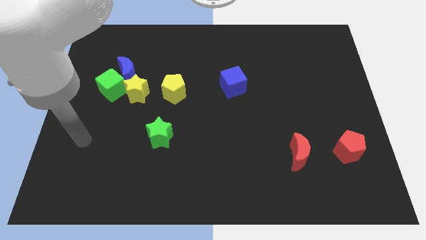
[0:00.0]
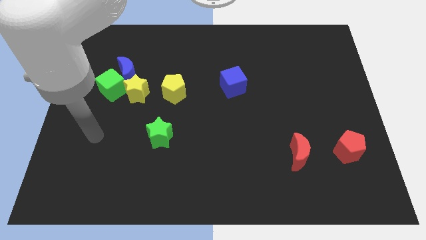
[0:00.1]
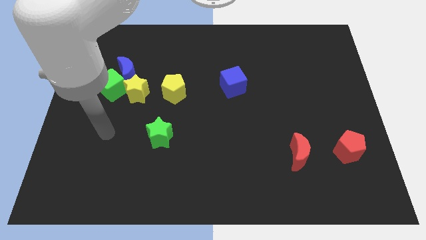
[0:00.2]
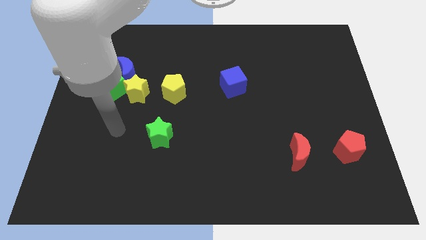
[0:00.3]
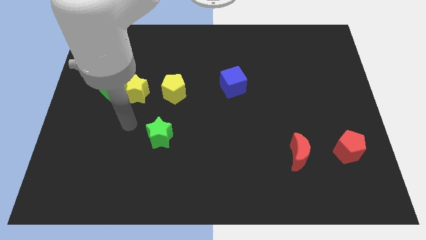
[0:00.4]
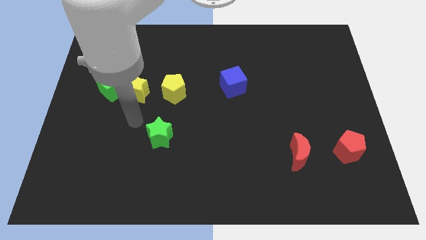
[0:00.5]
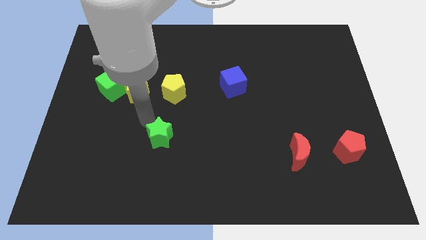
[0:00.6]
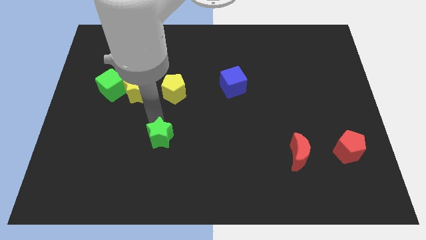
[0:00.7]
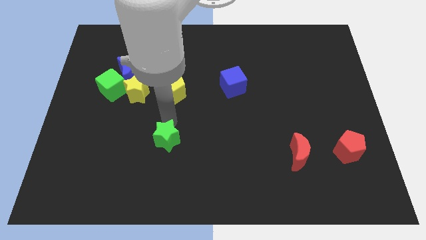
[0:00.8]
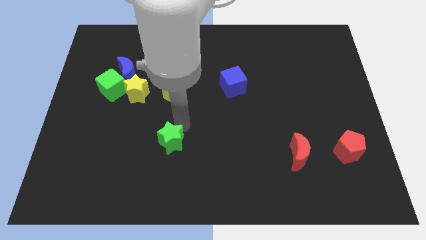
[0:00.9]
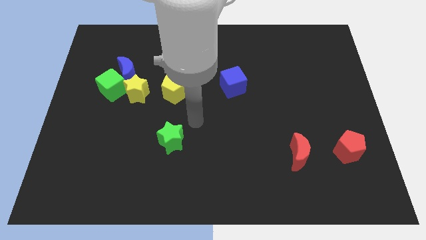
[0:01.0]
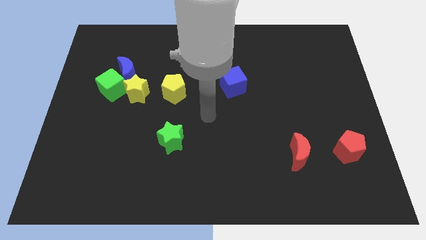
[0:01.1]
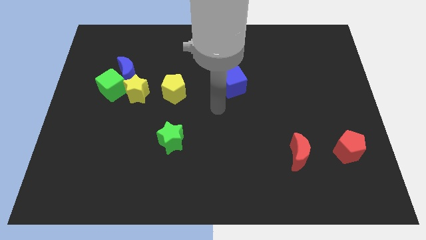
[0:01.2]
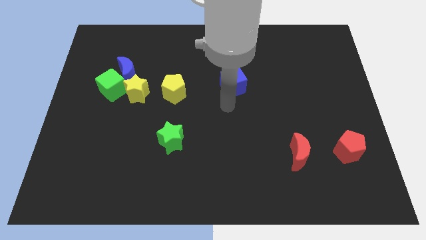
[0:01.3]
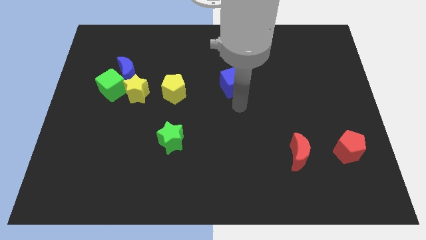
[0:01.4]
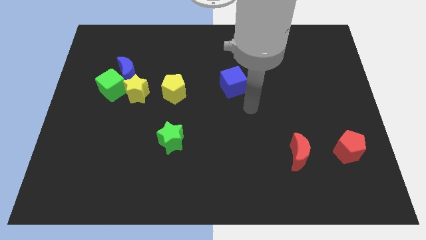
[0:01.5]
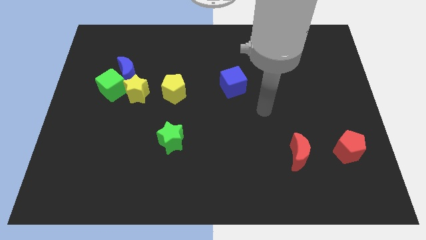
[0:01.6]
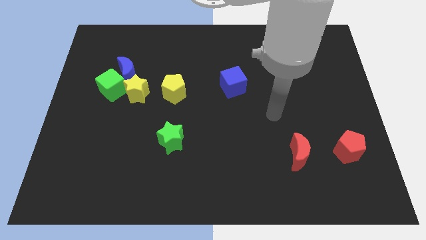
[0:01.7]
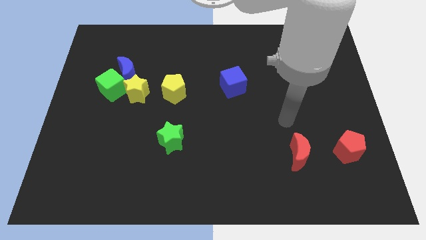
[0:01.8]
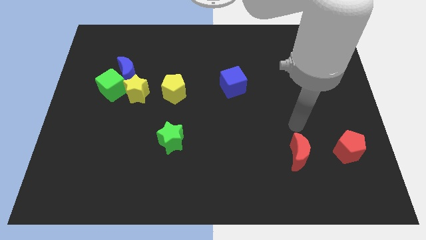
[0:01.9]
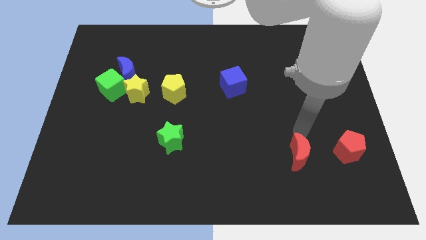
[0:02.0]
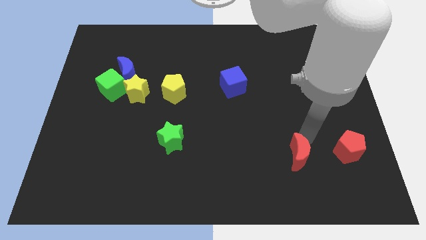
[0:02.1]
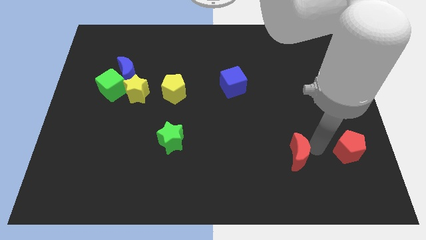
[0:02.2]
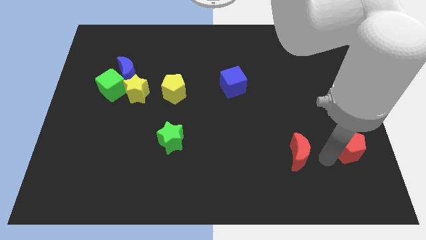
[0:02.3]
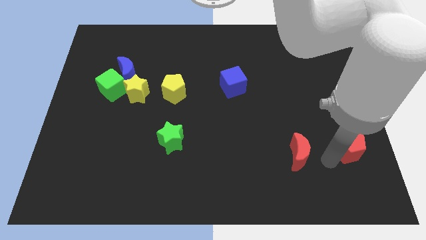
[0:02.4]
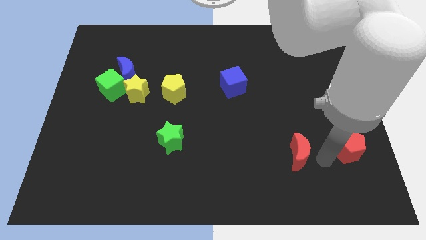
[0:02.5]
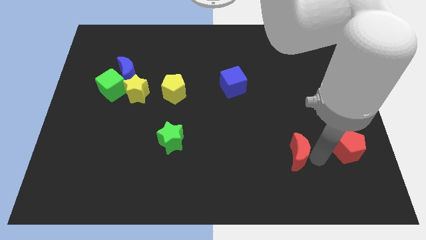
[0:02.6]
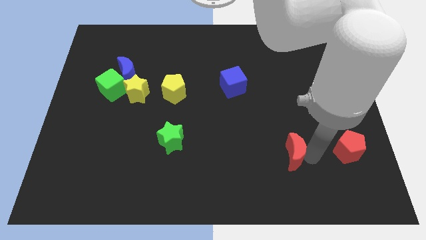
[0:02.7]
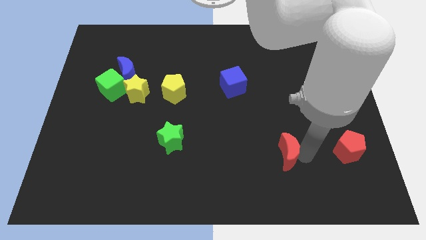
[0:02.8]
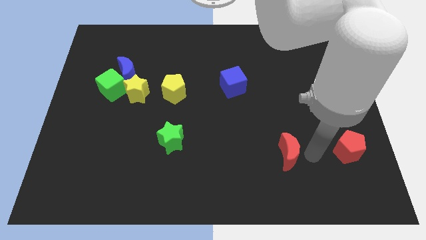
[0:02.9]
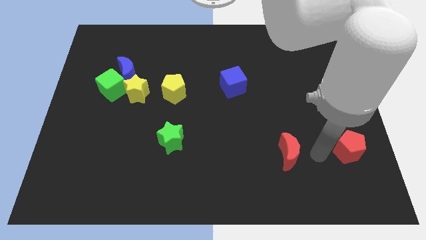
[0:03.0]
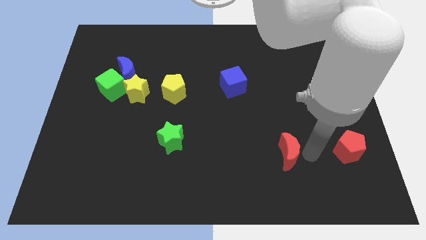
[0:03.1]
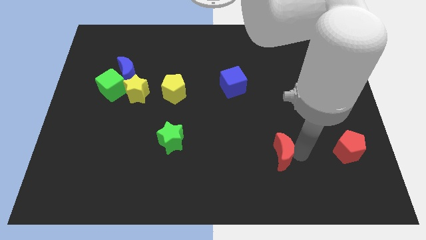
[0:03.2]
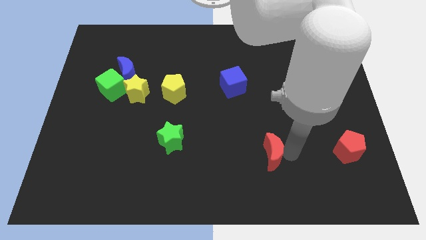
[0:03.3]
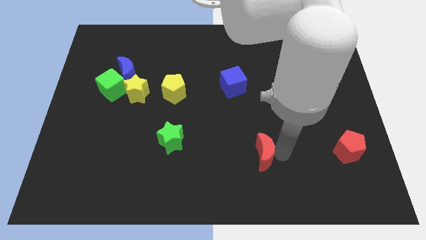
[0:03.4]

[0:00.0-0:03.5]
slightly slide the red moon to the left

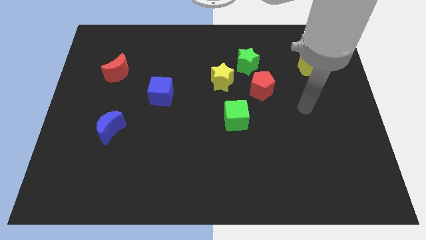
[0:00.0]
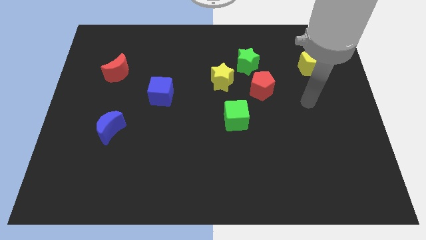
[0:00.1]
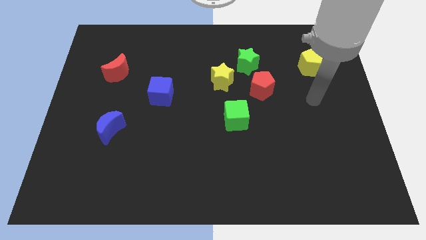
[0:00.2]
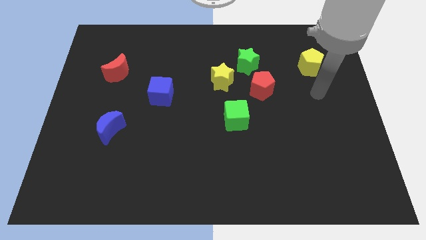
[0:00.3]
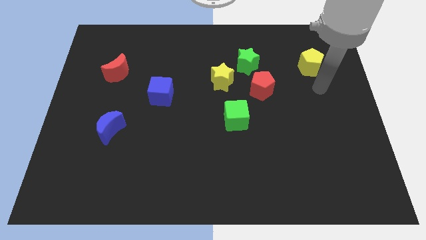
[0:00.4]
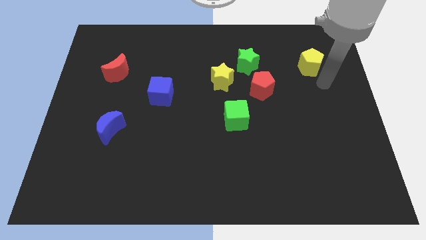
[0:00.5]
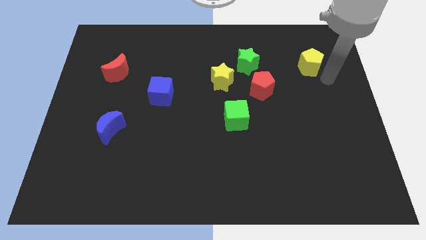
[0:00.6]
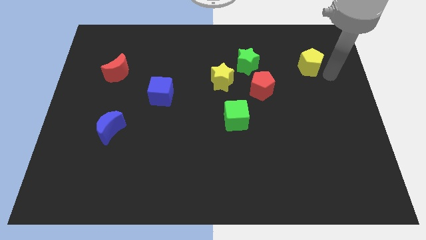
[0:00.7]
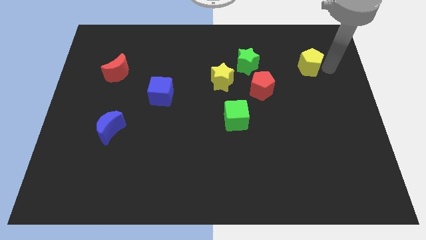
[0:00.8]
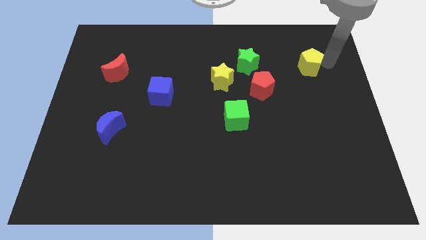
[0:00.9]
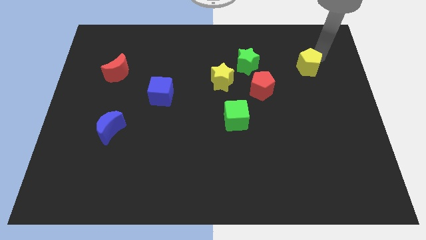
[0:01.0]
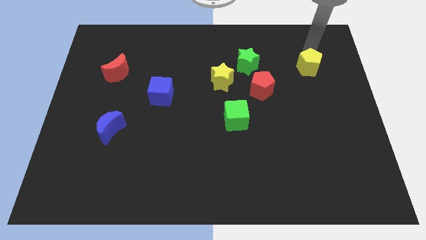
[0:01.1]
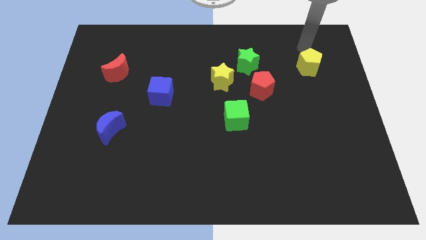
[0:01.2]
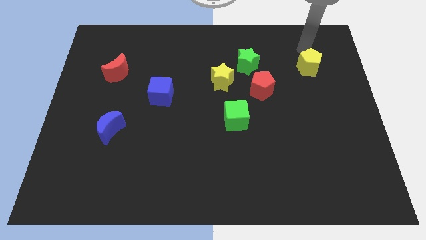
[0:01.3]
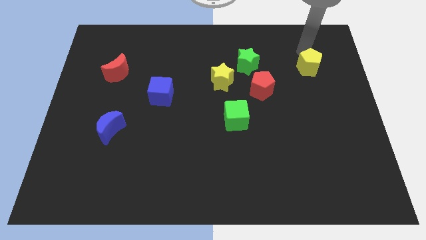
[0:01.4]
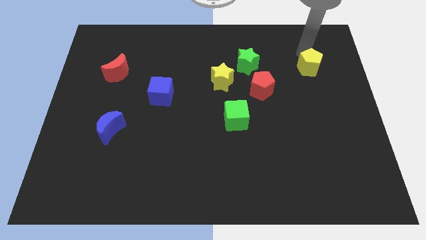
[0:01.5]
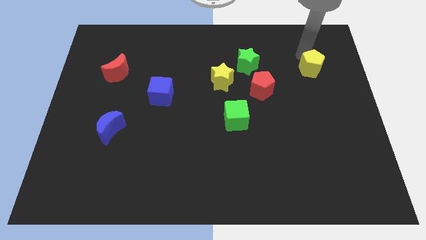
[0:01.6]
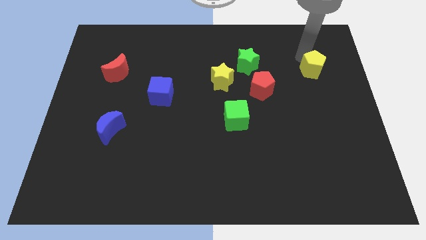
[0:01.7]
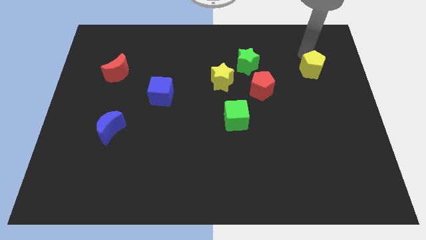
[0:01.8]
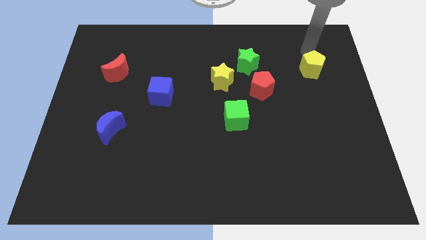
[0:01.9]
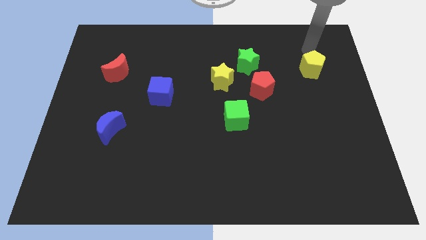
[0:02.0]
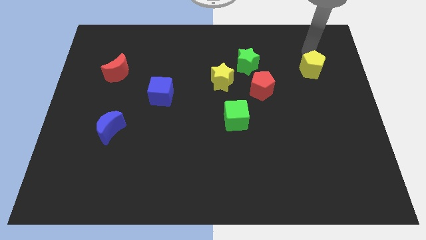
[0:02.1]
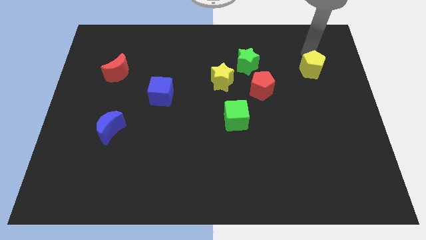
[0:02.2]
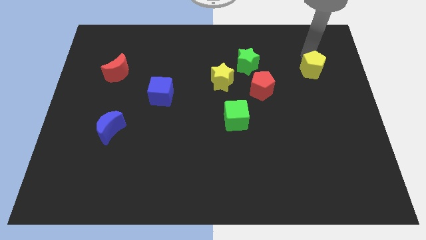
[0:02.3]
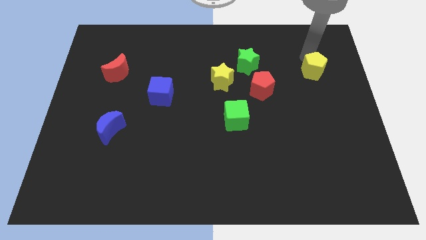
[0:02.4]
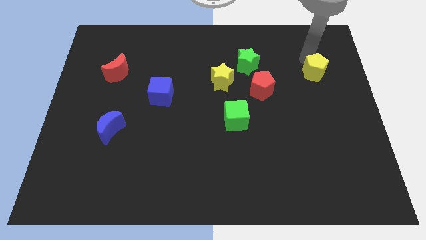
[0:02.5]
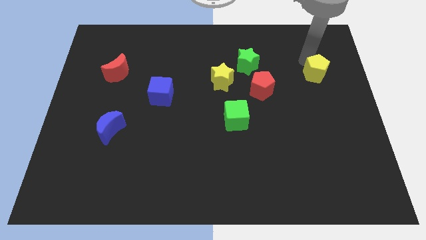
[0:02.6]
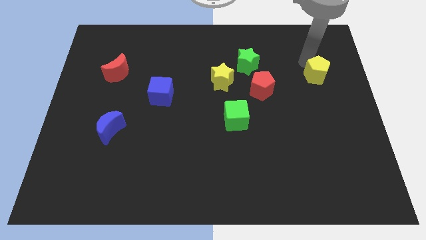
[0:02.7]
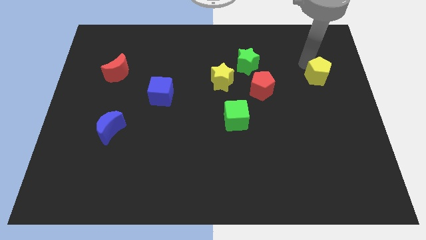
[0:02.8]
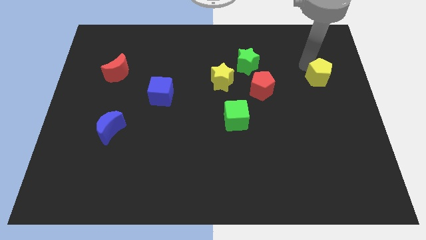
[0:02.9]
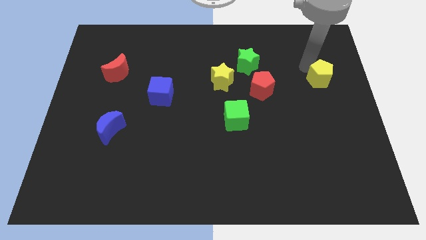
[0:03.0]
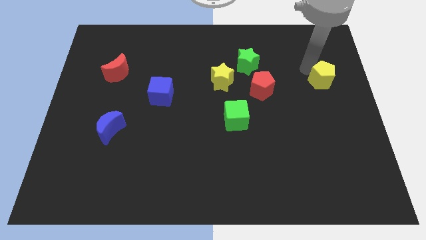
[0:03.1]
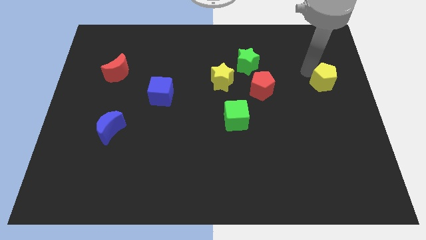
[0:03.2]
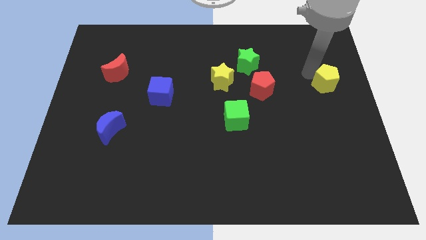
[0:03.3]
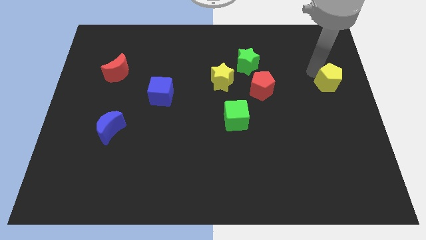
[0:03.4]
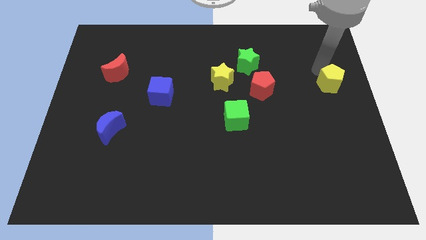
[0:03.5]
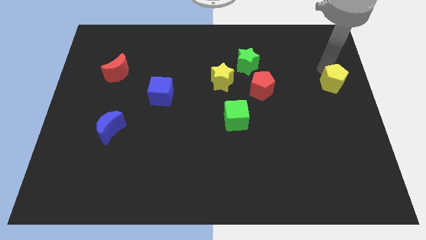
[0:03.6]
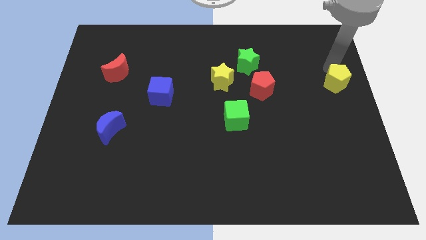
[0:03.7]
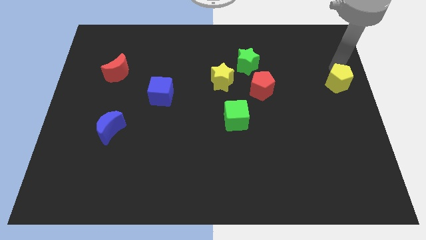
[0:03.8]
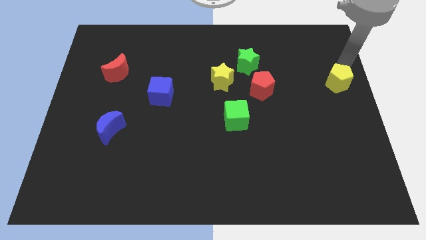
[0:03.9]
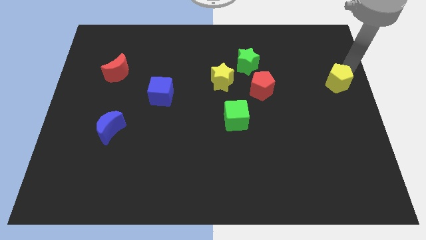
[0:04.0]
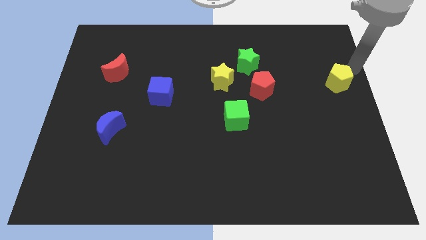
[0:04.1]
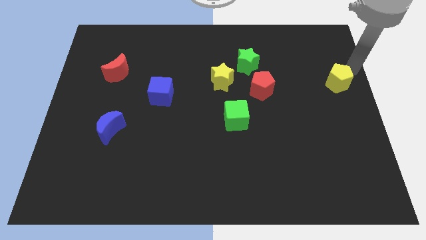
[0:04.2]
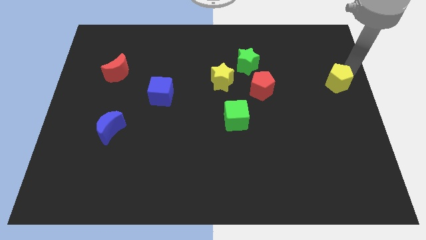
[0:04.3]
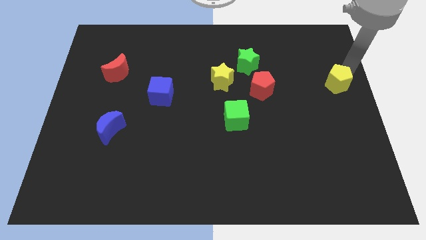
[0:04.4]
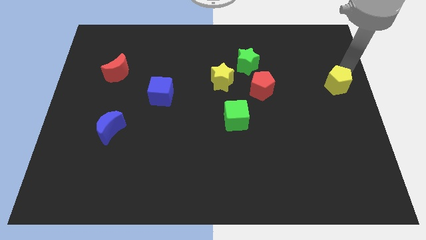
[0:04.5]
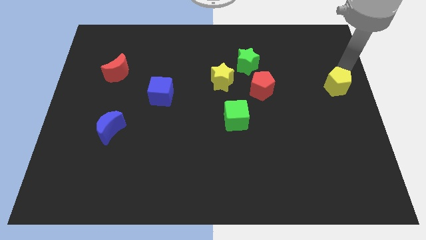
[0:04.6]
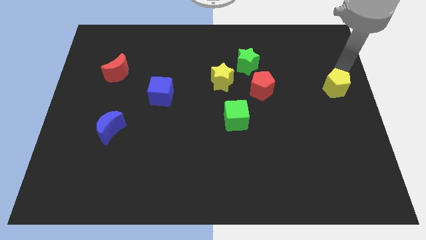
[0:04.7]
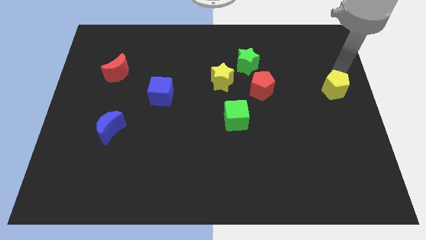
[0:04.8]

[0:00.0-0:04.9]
slightly move the yellow pentagon down
